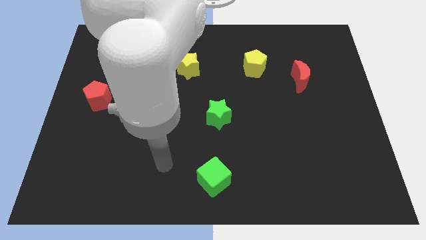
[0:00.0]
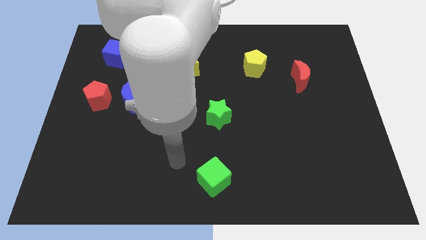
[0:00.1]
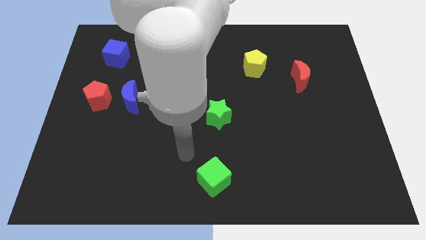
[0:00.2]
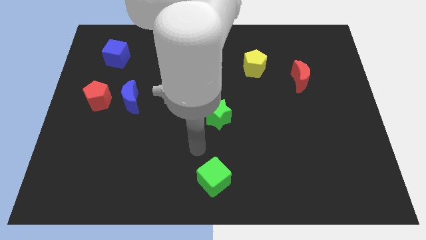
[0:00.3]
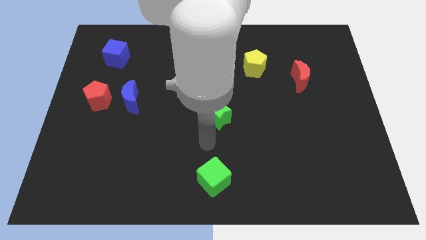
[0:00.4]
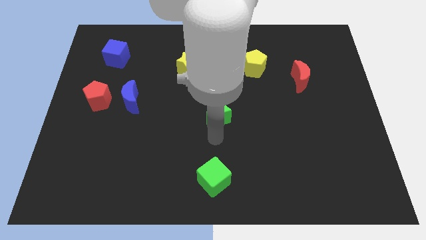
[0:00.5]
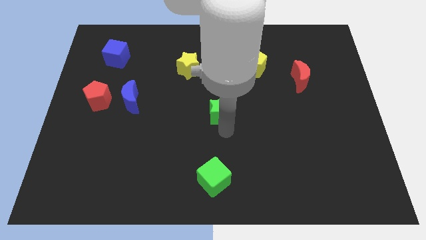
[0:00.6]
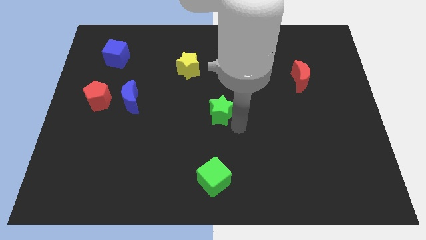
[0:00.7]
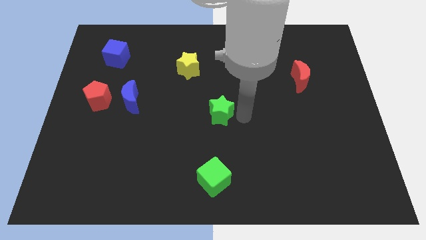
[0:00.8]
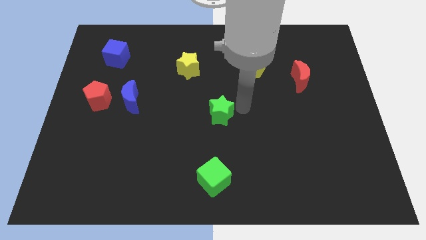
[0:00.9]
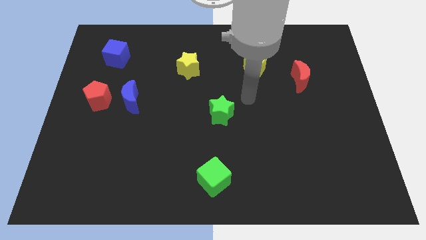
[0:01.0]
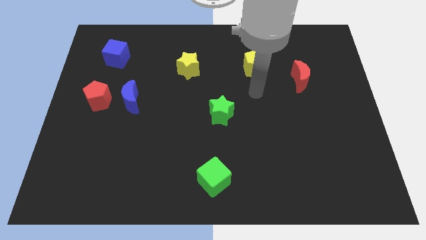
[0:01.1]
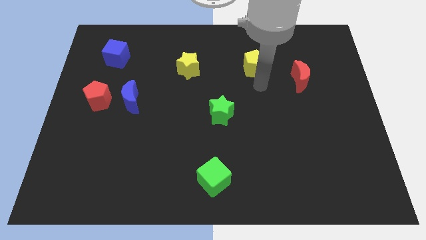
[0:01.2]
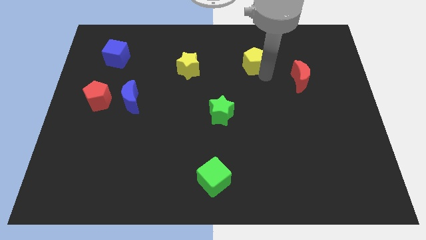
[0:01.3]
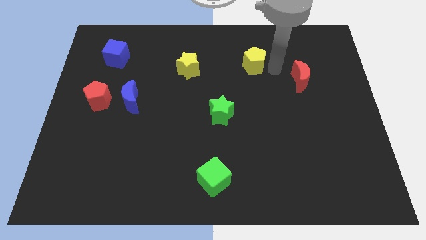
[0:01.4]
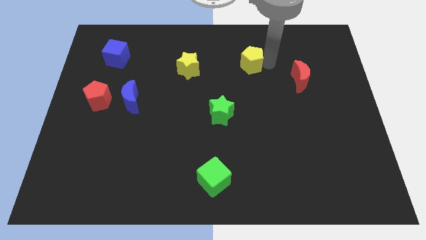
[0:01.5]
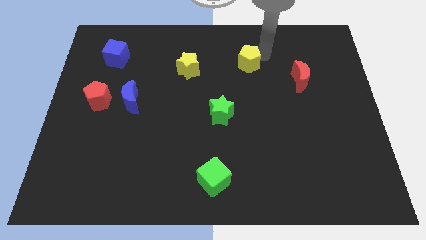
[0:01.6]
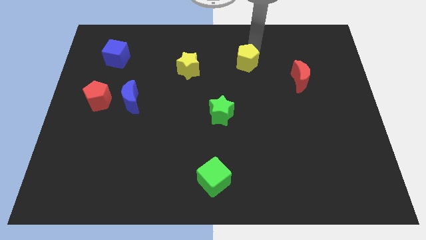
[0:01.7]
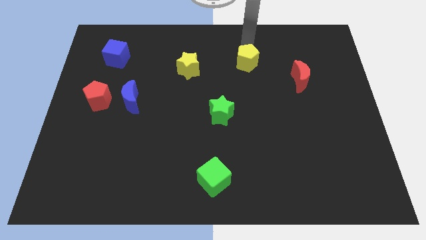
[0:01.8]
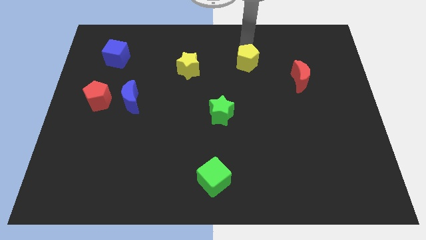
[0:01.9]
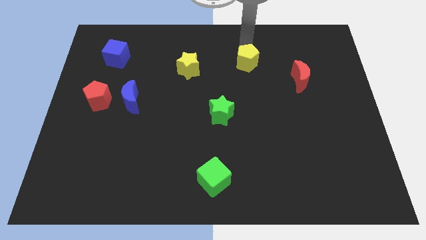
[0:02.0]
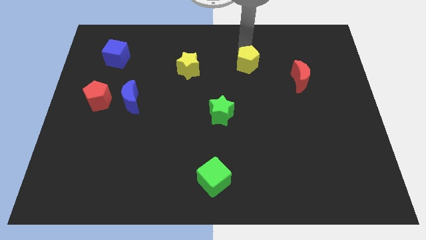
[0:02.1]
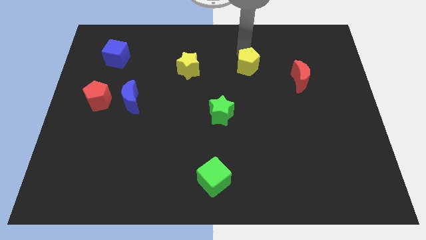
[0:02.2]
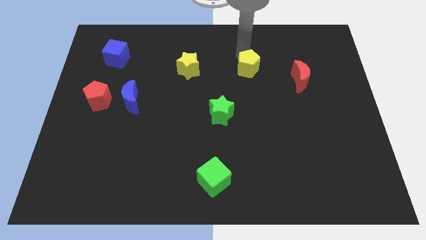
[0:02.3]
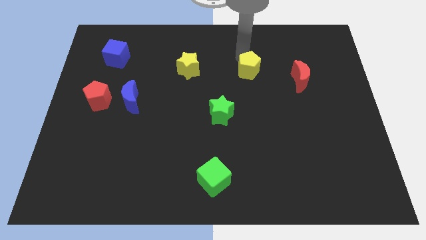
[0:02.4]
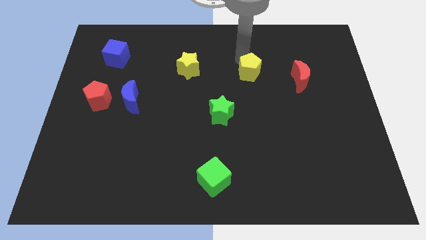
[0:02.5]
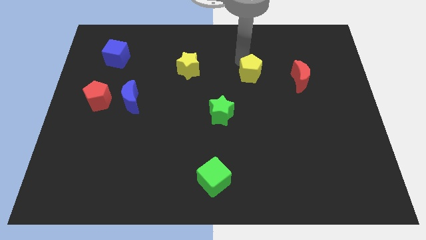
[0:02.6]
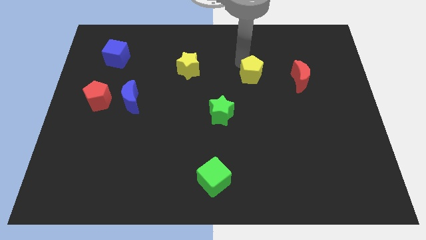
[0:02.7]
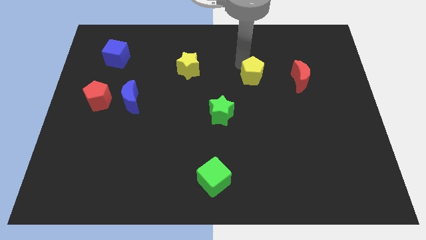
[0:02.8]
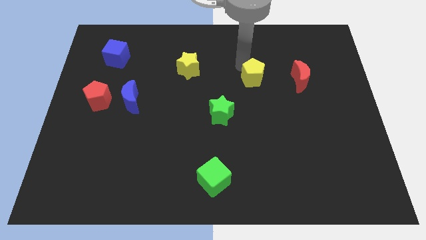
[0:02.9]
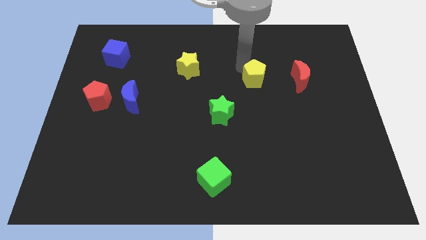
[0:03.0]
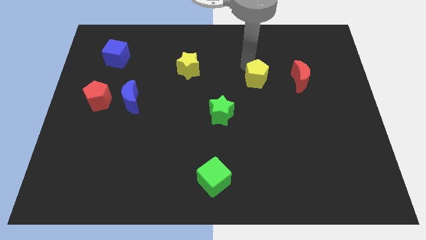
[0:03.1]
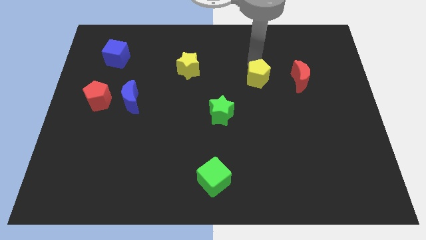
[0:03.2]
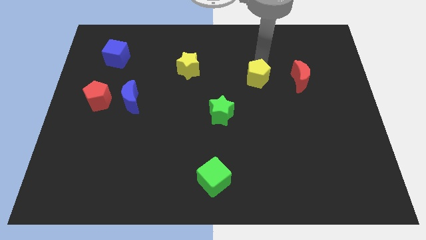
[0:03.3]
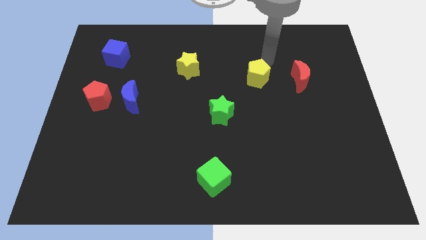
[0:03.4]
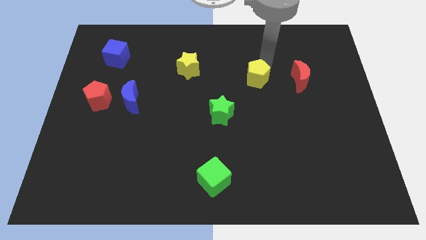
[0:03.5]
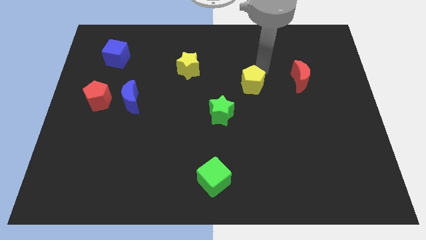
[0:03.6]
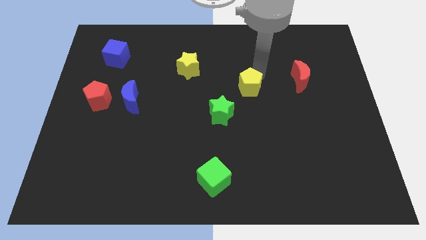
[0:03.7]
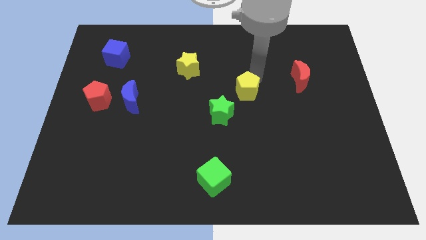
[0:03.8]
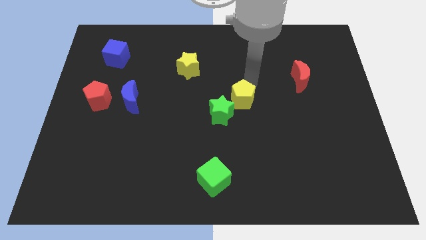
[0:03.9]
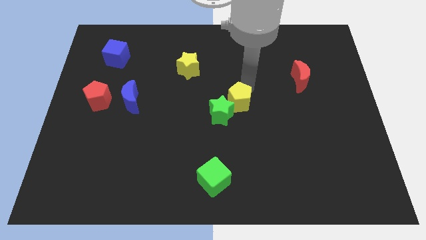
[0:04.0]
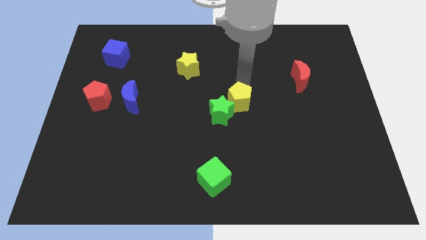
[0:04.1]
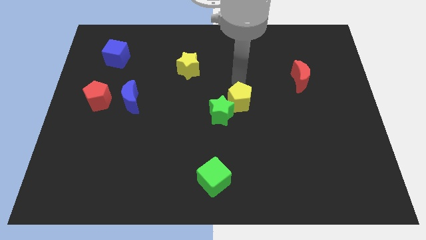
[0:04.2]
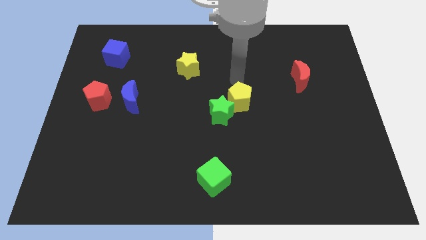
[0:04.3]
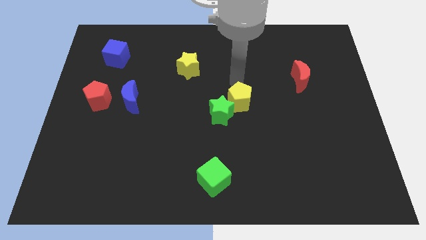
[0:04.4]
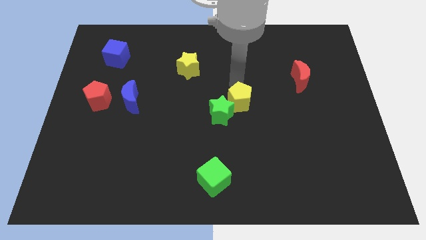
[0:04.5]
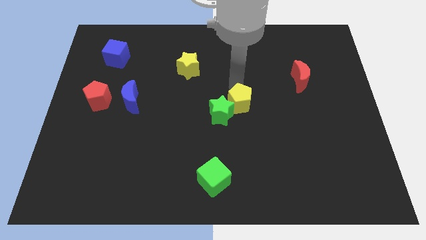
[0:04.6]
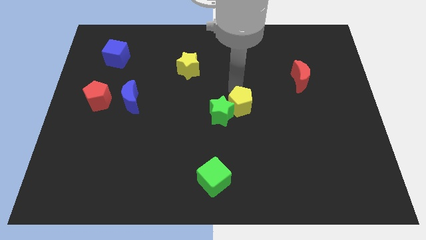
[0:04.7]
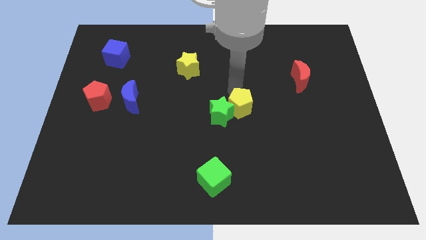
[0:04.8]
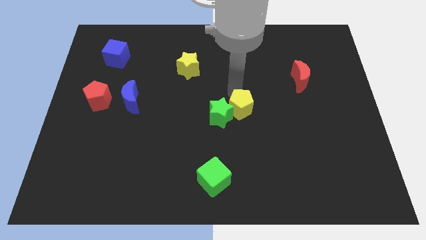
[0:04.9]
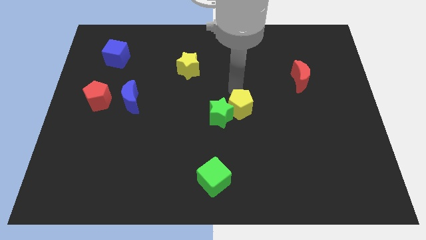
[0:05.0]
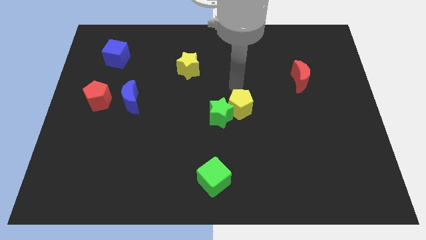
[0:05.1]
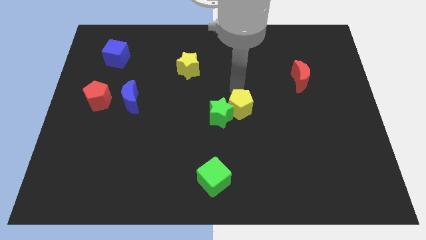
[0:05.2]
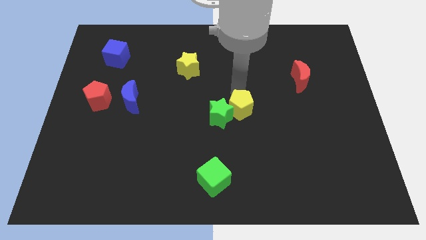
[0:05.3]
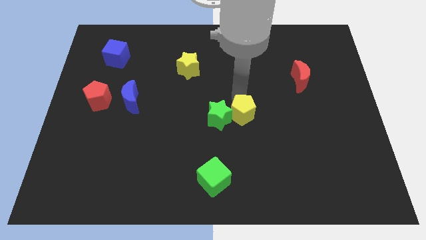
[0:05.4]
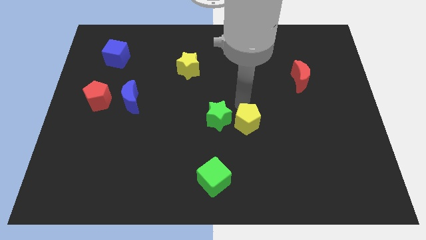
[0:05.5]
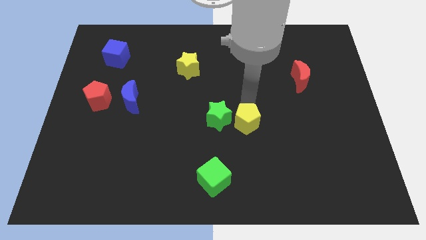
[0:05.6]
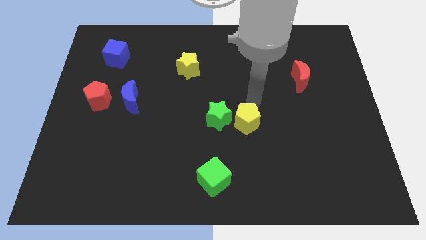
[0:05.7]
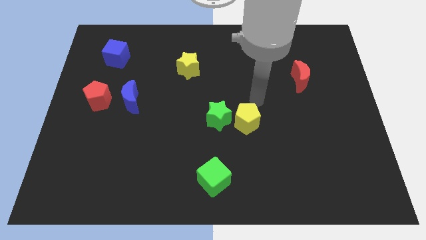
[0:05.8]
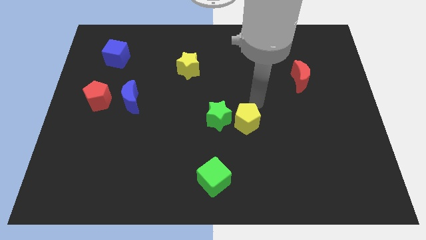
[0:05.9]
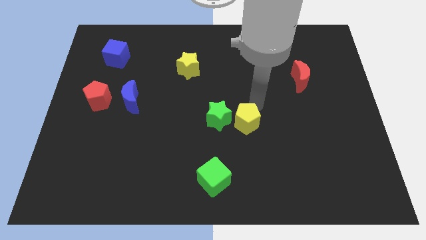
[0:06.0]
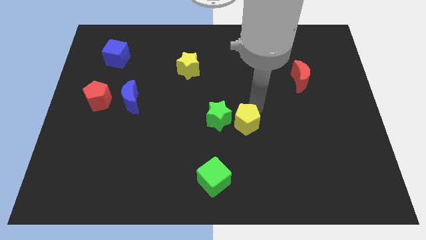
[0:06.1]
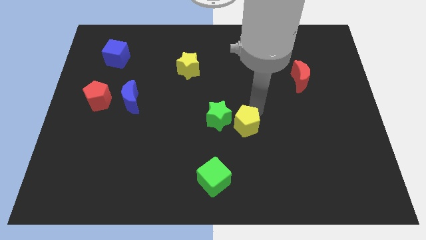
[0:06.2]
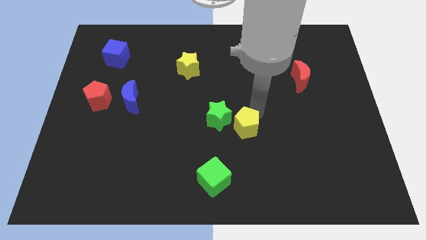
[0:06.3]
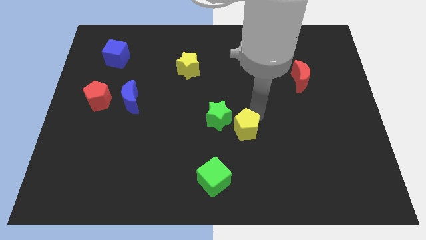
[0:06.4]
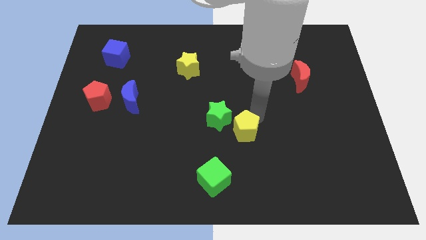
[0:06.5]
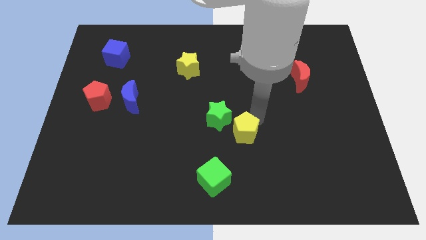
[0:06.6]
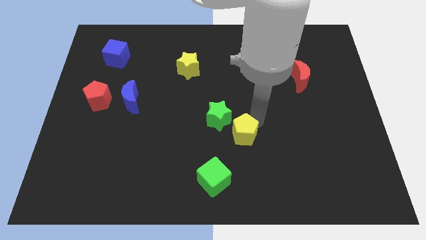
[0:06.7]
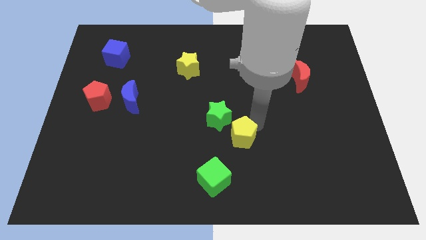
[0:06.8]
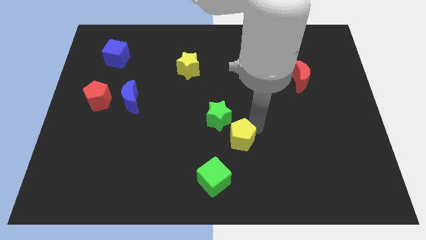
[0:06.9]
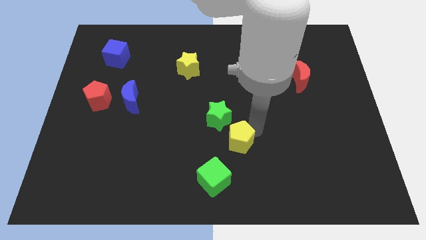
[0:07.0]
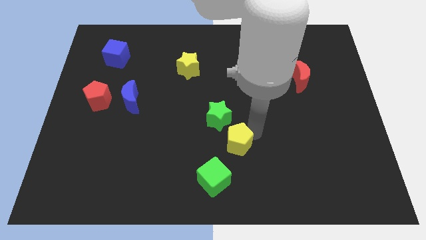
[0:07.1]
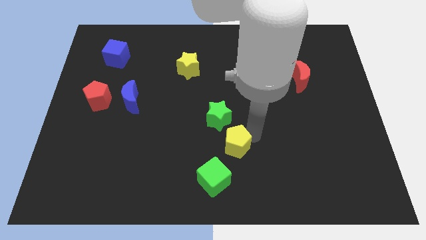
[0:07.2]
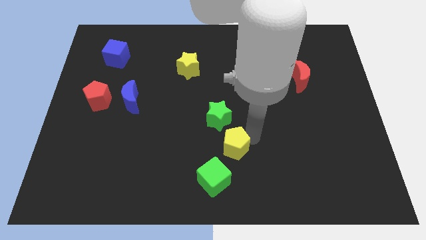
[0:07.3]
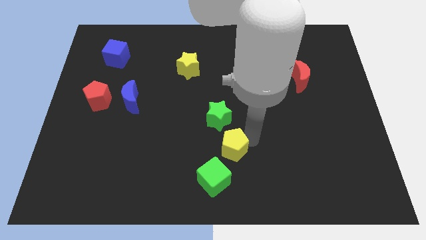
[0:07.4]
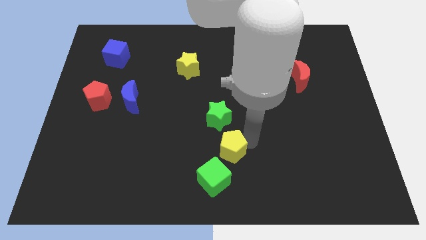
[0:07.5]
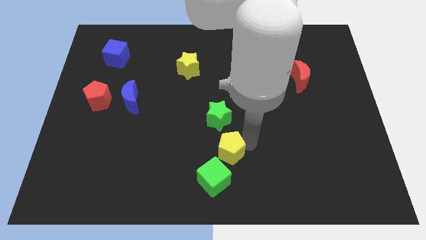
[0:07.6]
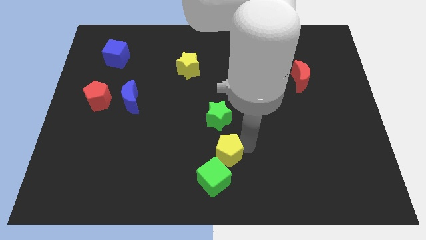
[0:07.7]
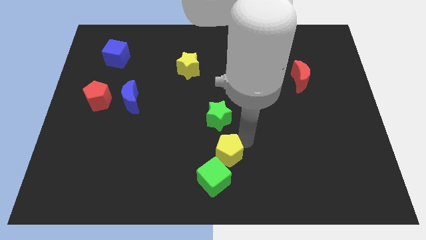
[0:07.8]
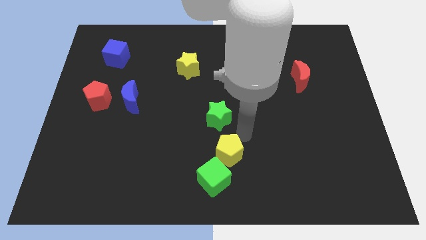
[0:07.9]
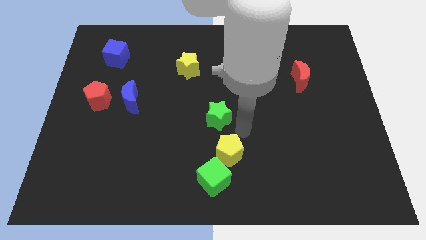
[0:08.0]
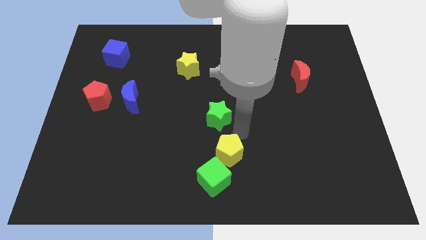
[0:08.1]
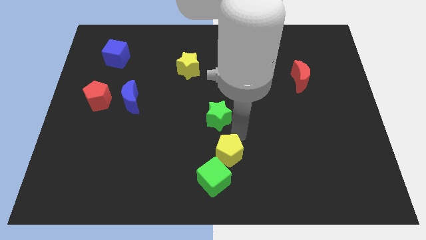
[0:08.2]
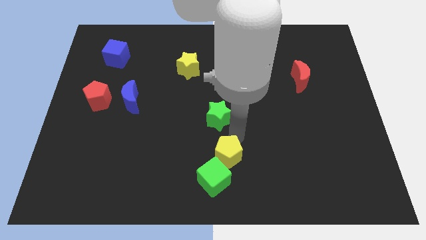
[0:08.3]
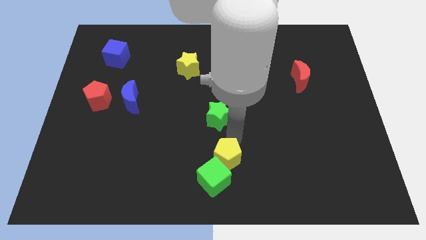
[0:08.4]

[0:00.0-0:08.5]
push the yellow pentagon to the green cube
